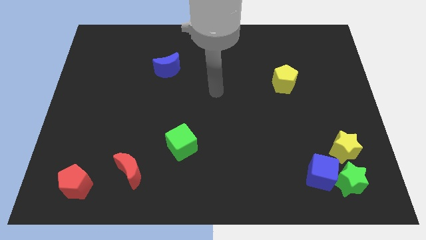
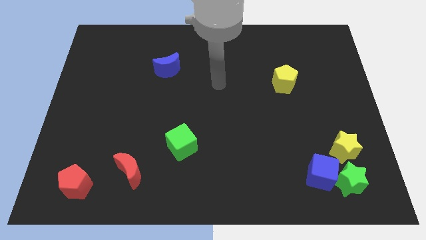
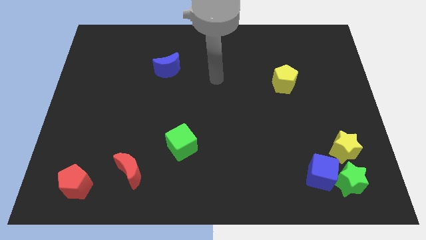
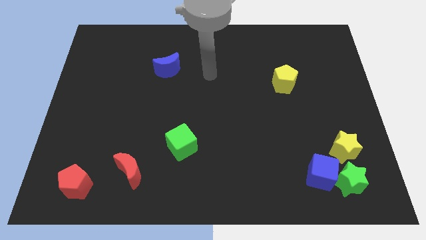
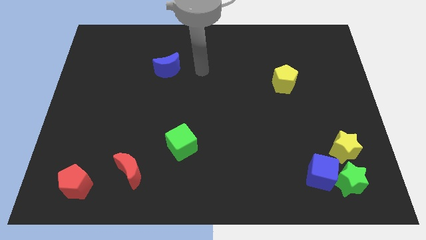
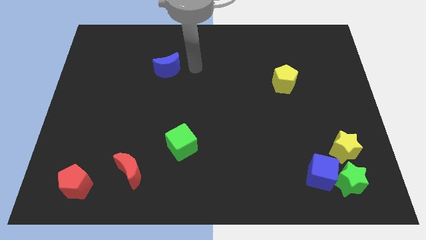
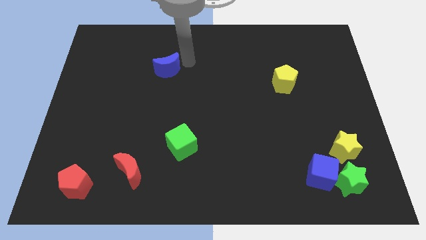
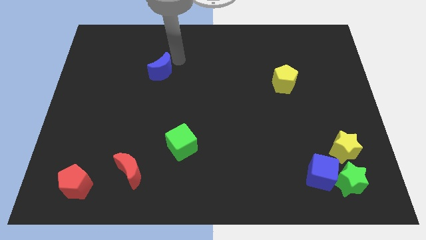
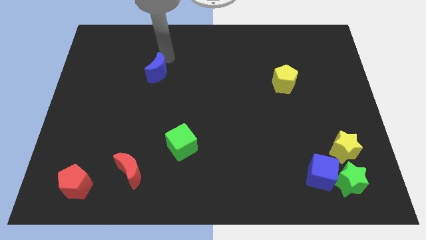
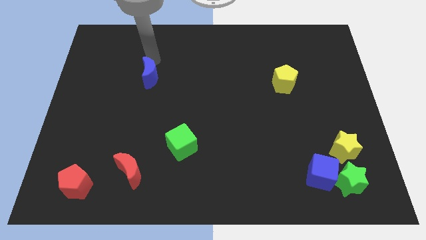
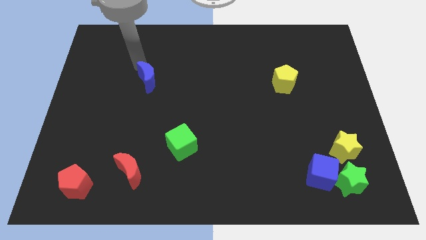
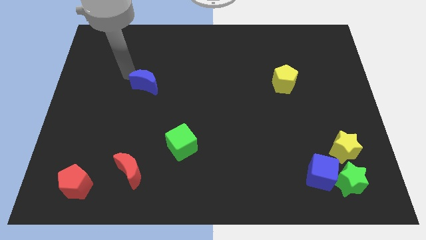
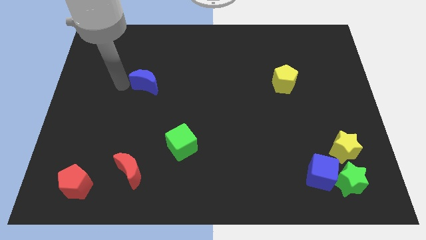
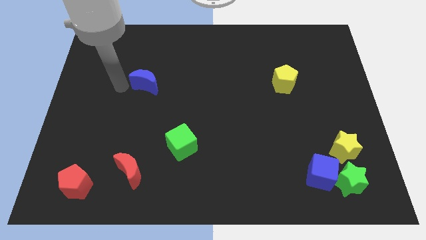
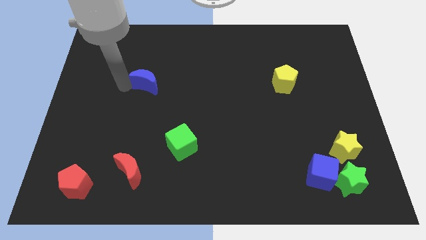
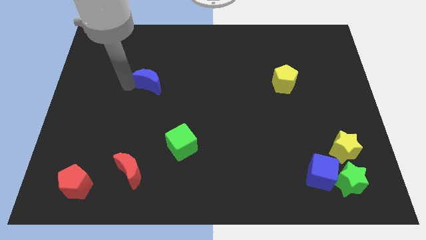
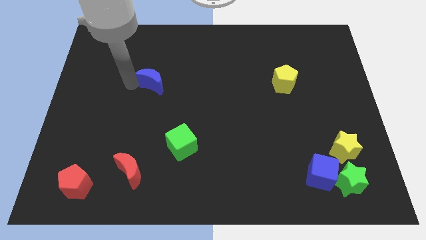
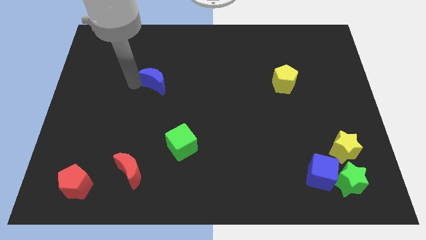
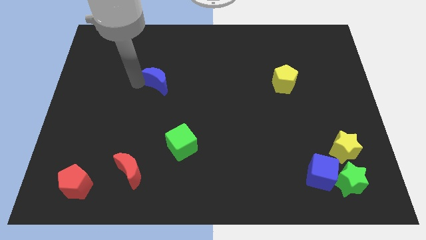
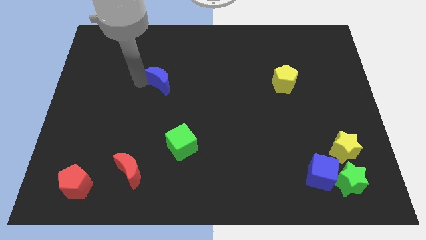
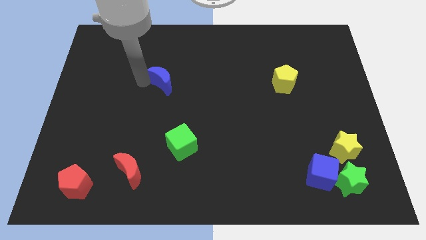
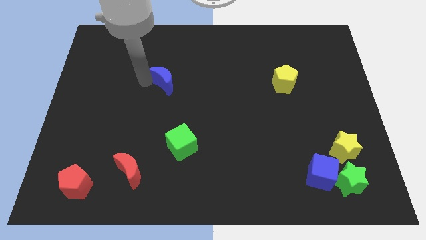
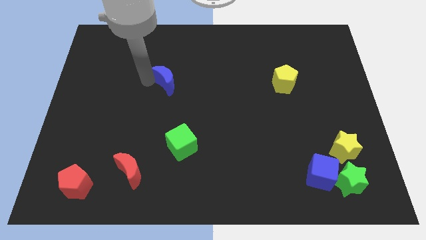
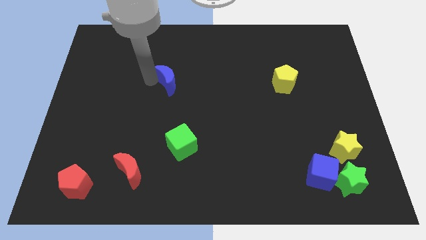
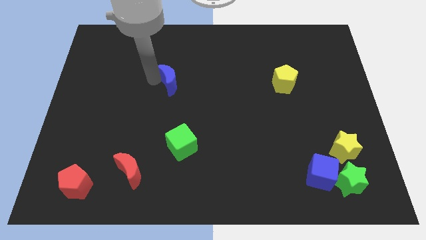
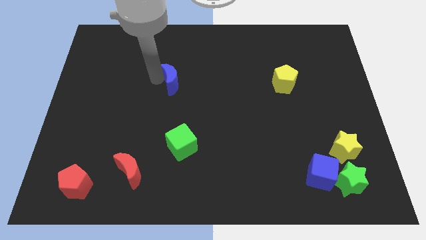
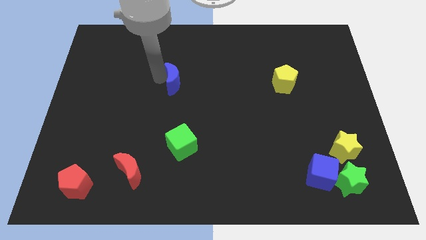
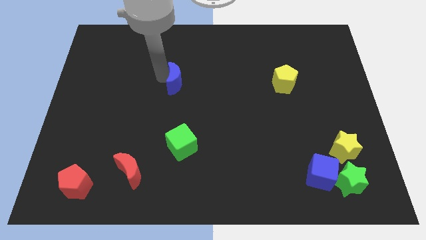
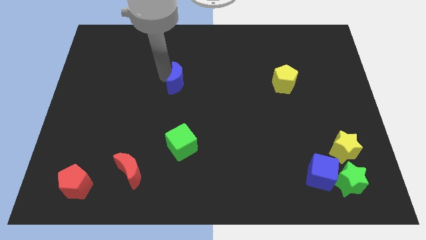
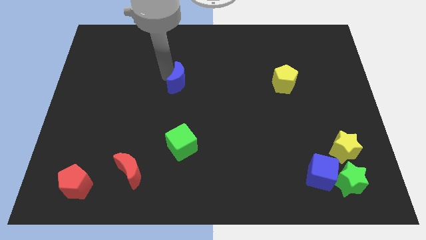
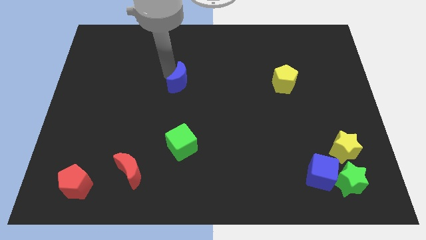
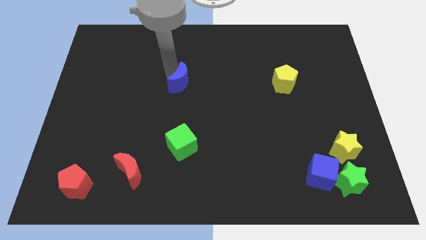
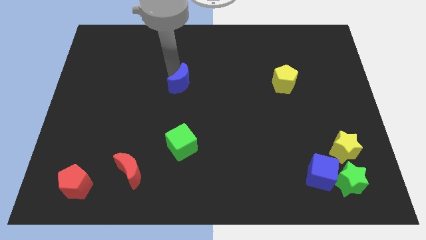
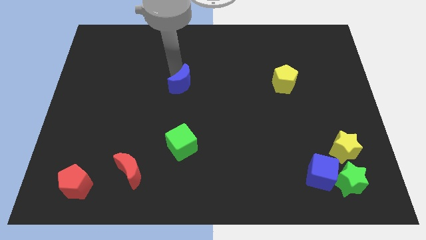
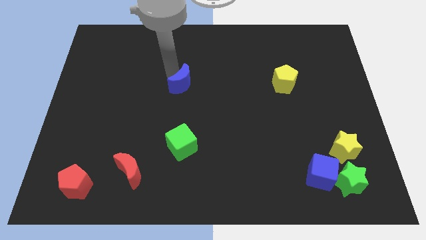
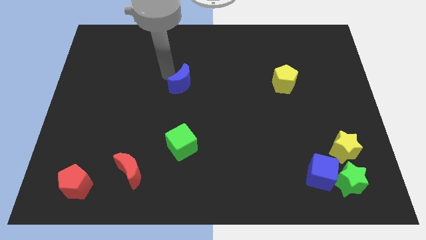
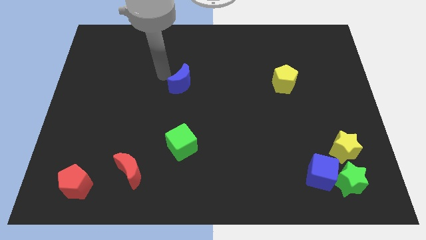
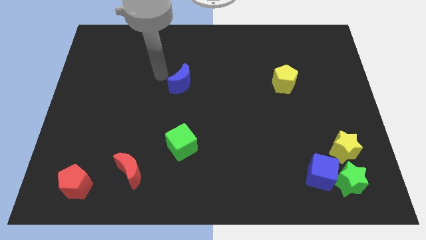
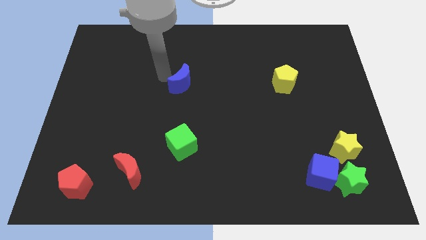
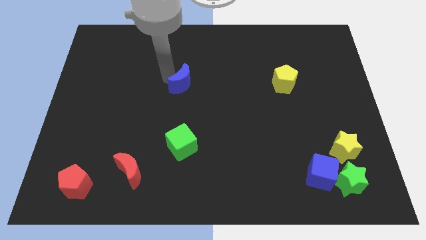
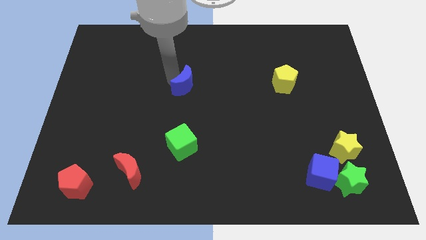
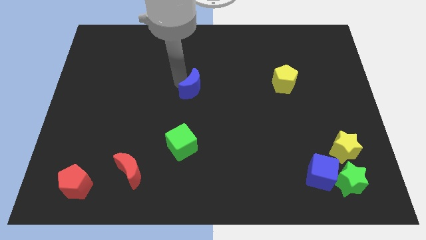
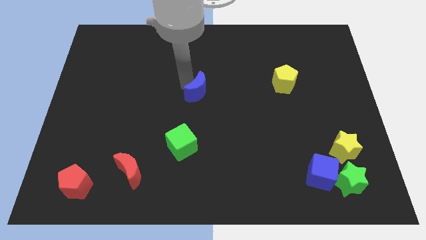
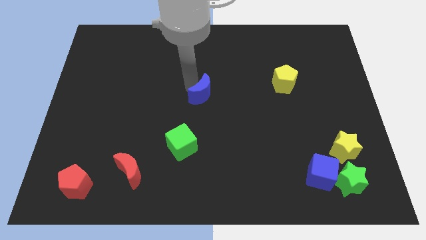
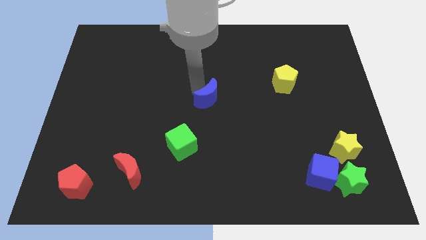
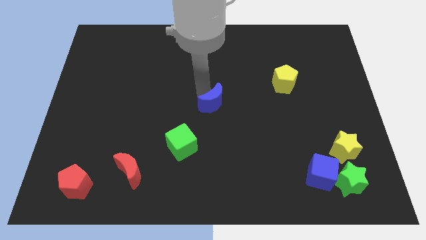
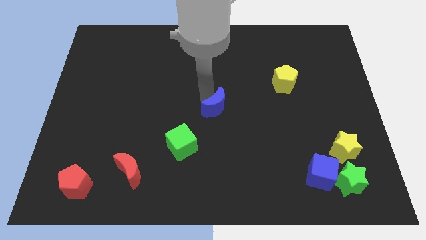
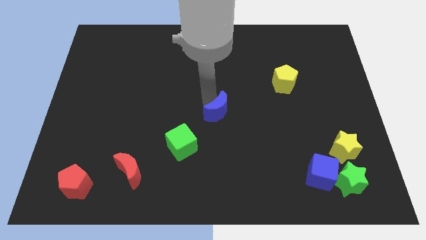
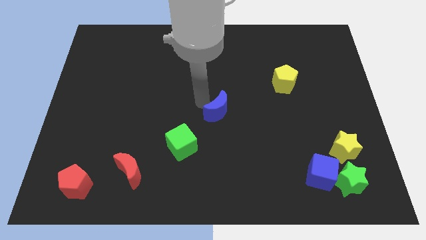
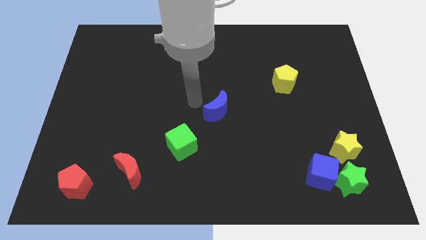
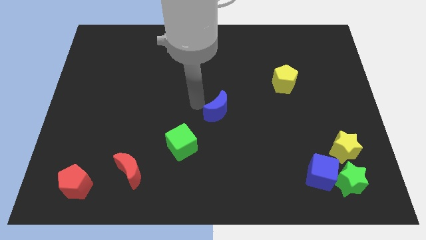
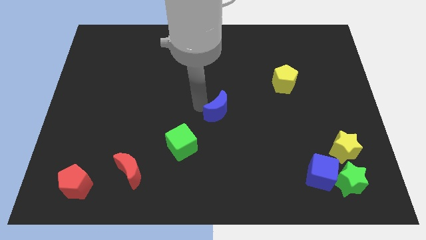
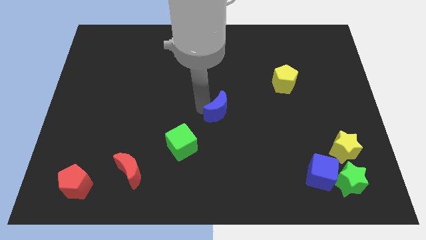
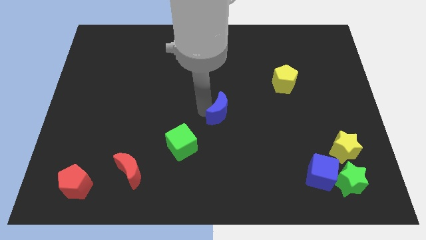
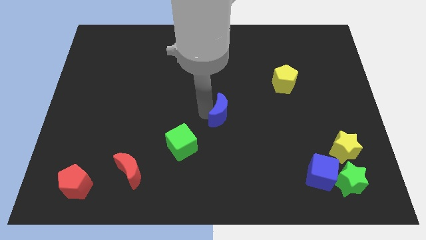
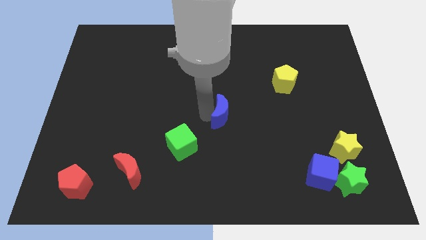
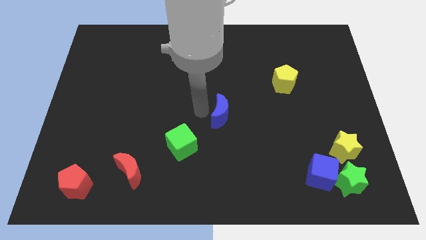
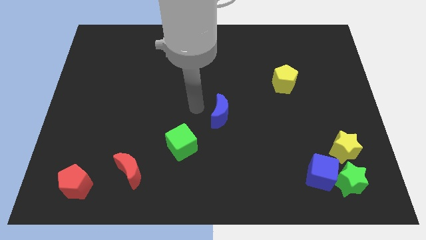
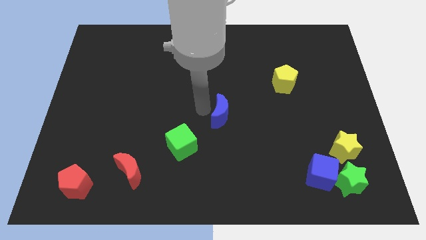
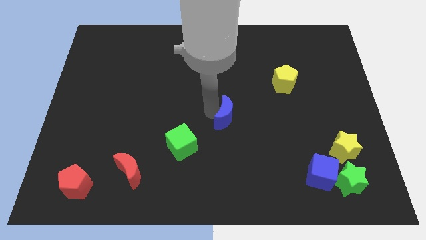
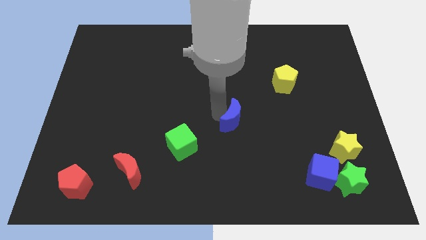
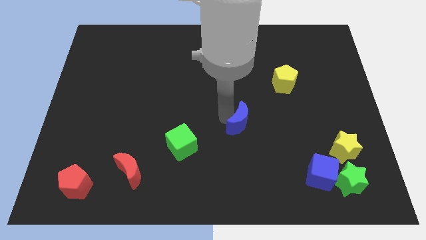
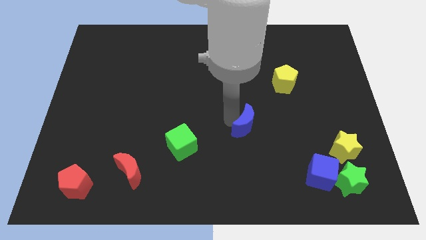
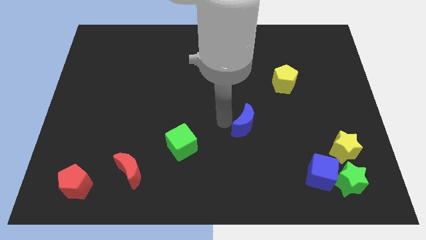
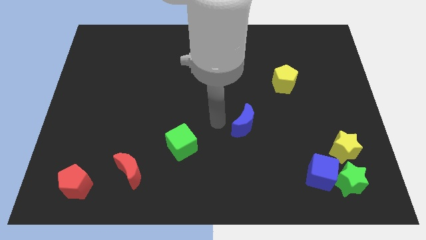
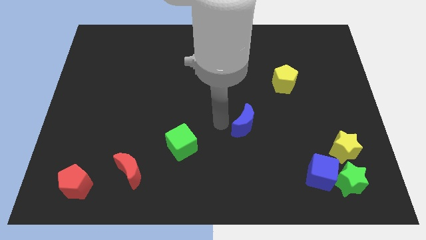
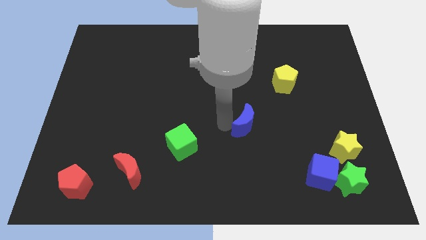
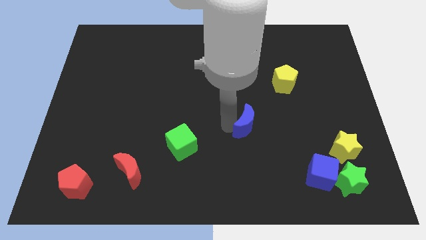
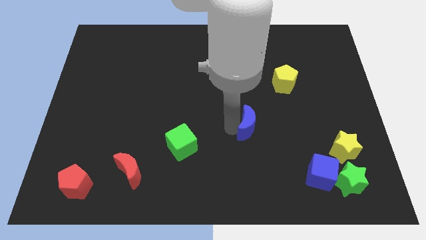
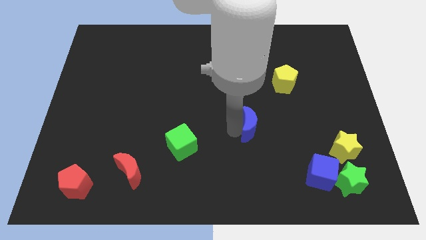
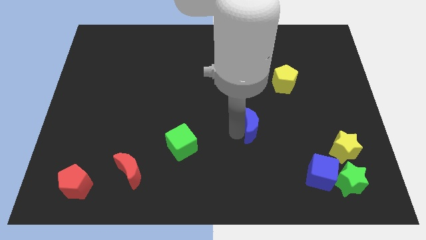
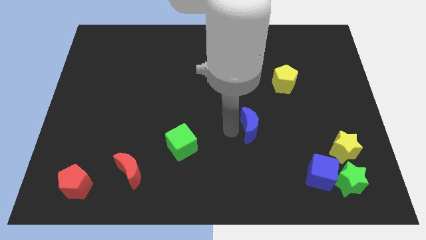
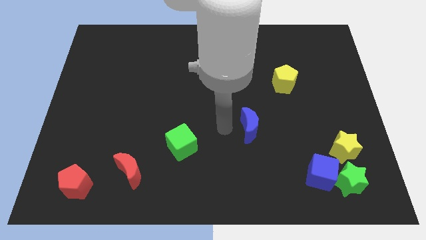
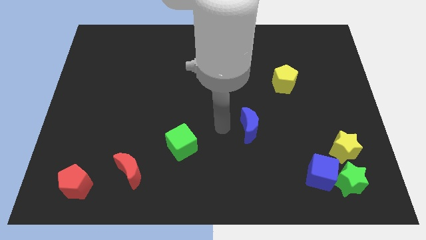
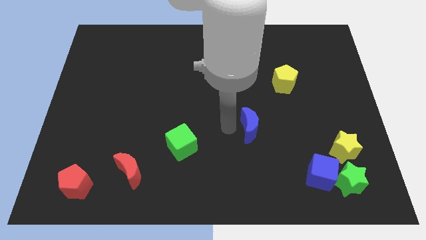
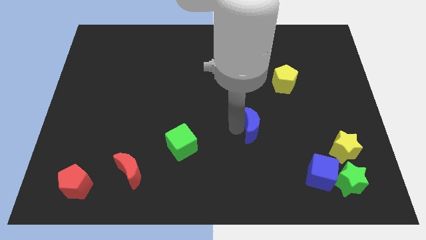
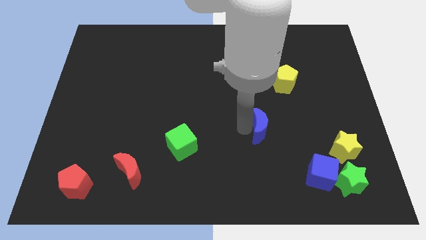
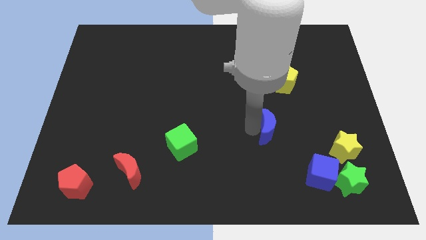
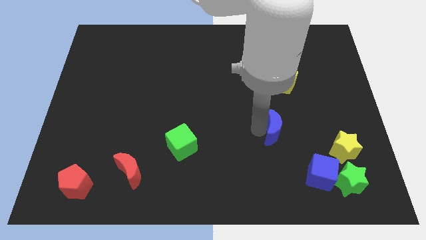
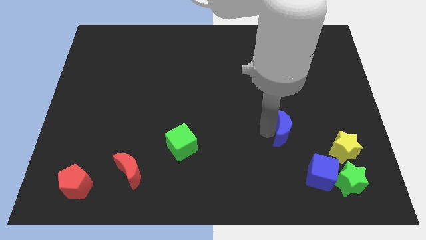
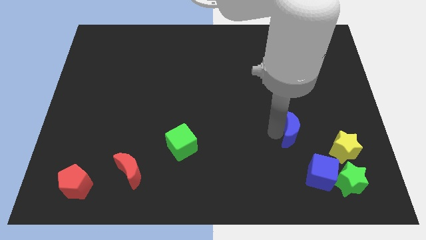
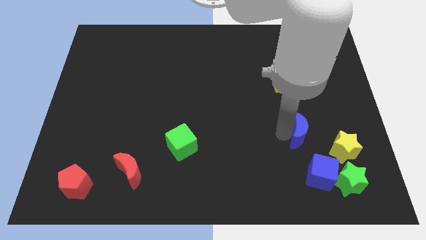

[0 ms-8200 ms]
put the blue moon to the top left of the yellow star
